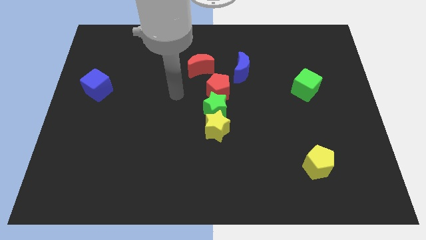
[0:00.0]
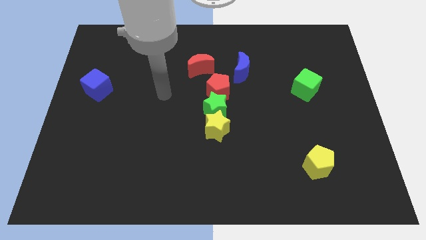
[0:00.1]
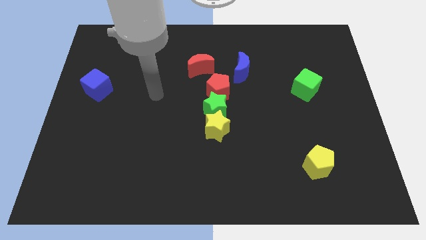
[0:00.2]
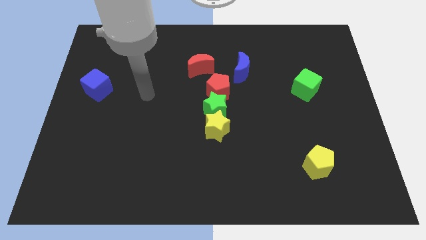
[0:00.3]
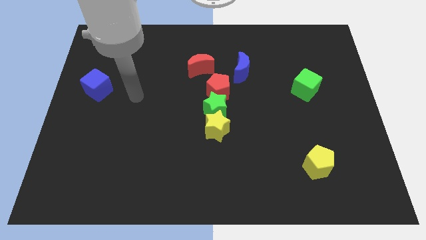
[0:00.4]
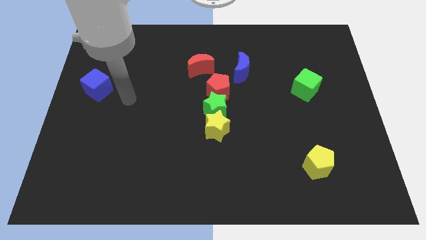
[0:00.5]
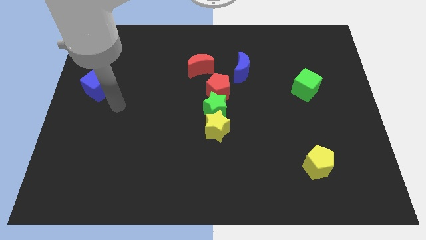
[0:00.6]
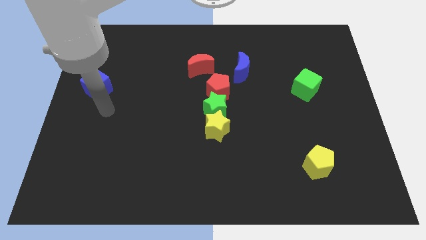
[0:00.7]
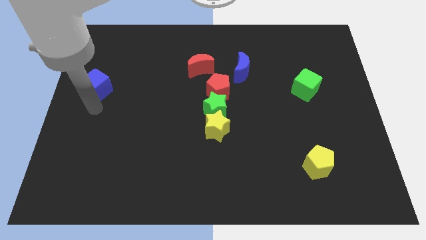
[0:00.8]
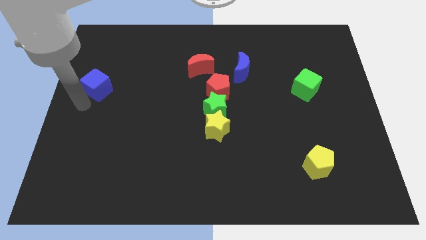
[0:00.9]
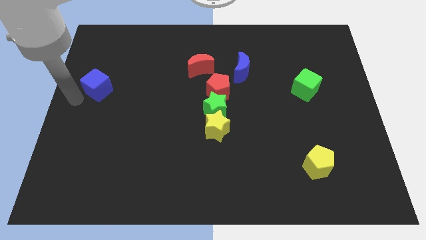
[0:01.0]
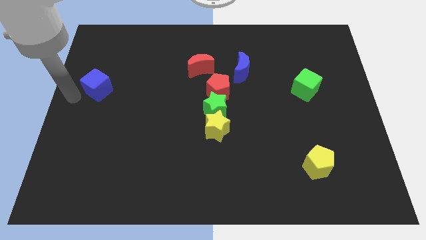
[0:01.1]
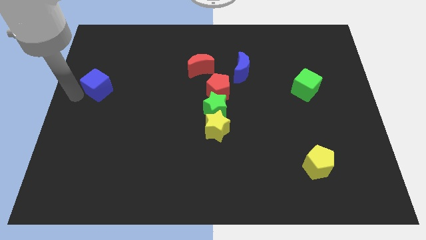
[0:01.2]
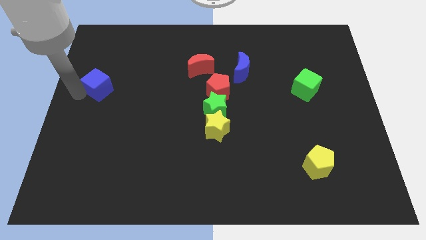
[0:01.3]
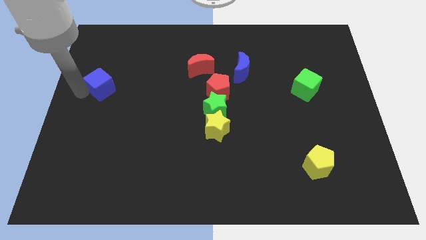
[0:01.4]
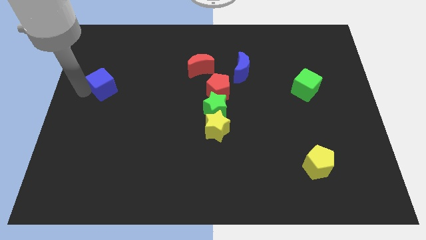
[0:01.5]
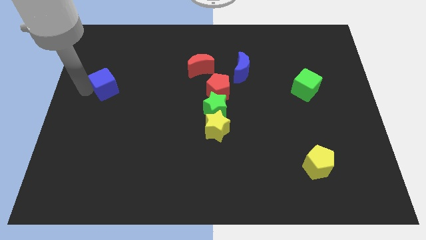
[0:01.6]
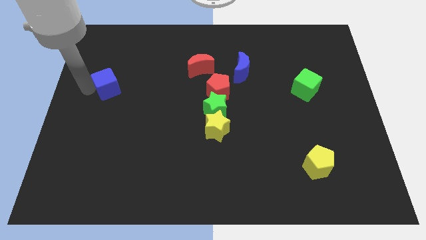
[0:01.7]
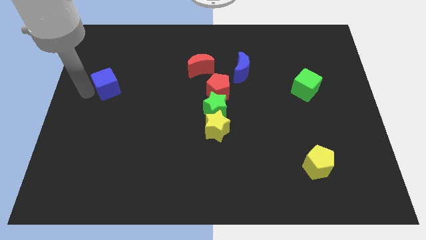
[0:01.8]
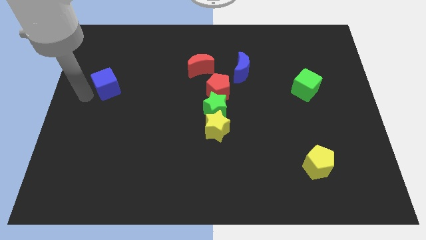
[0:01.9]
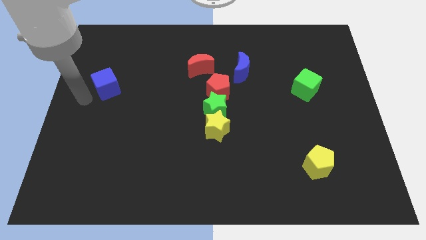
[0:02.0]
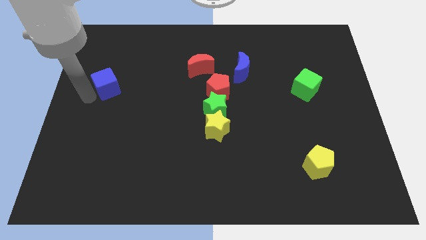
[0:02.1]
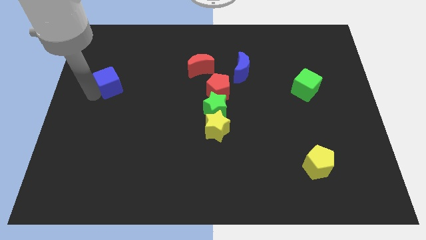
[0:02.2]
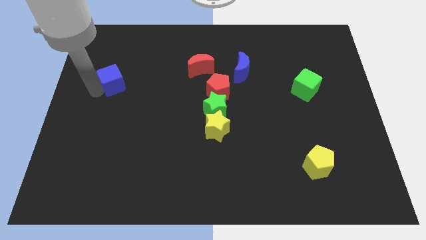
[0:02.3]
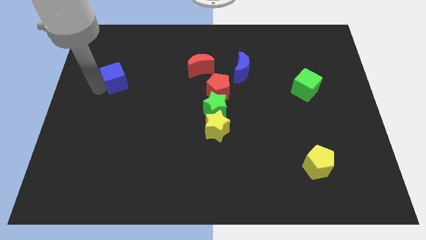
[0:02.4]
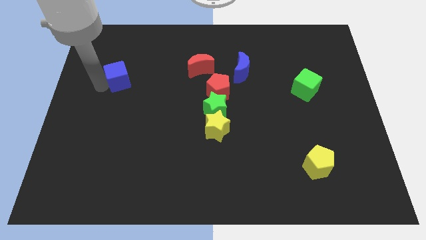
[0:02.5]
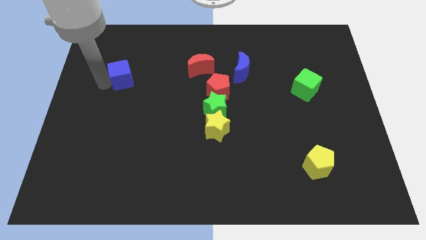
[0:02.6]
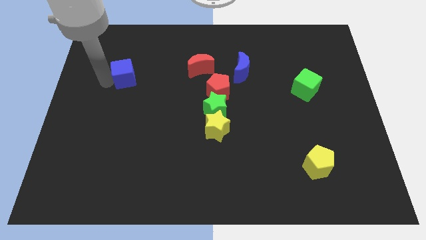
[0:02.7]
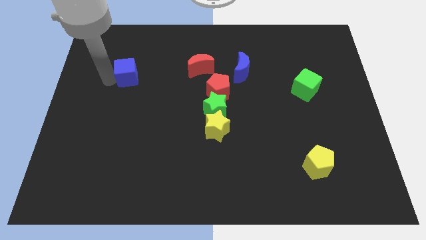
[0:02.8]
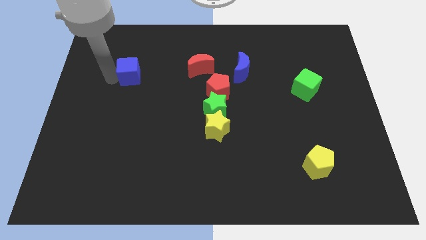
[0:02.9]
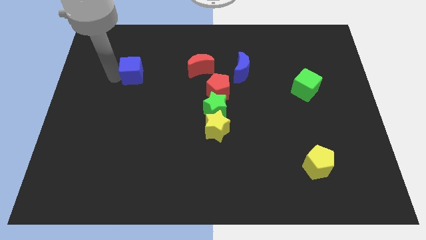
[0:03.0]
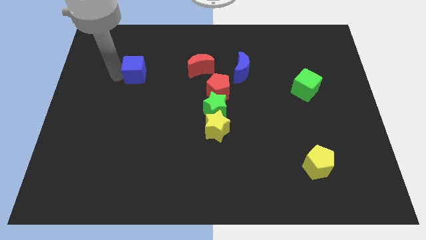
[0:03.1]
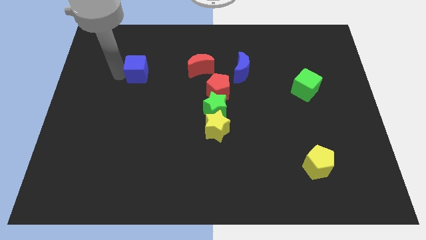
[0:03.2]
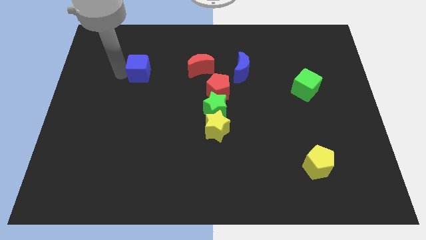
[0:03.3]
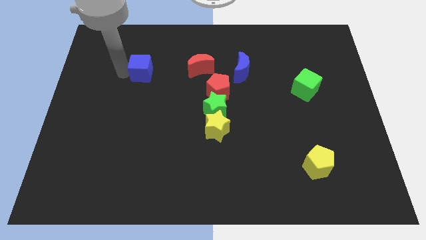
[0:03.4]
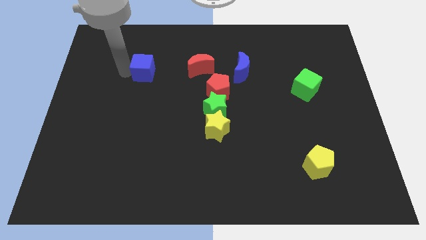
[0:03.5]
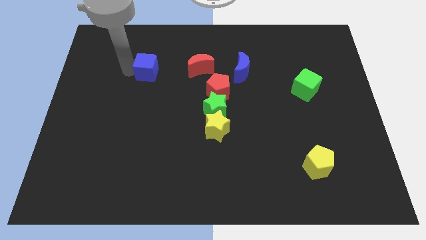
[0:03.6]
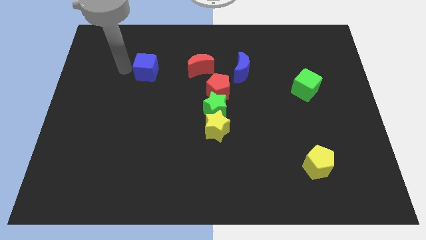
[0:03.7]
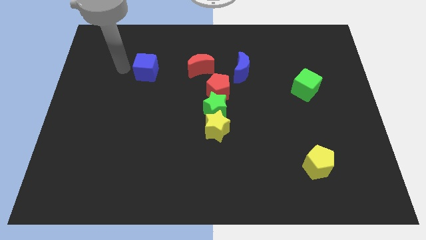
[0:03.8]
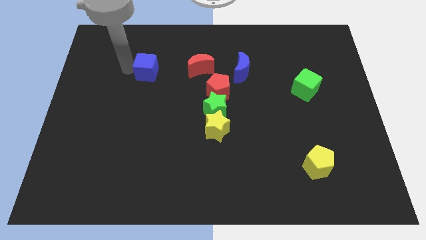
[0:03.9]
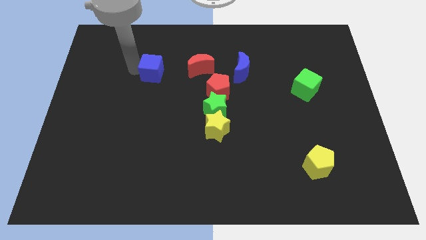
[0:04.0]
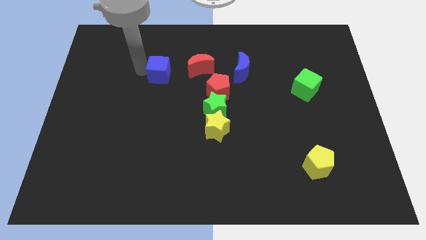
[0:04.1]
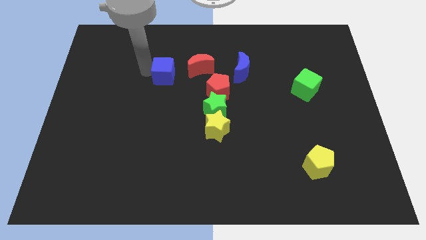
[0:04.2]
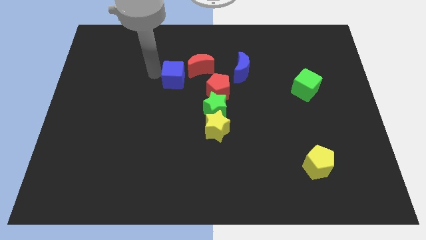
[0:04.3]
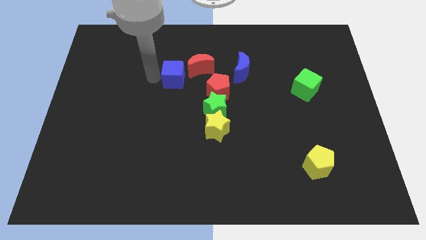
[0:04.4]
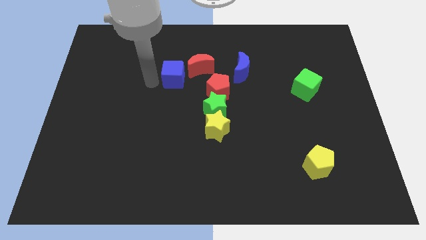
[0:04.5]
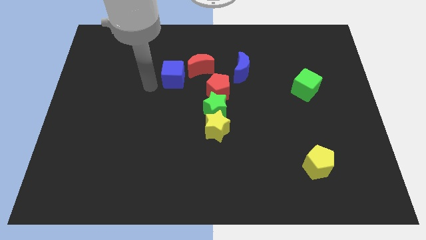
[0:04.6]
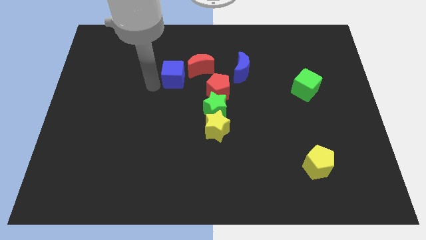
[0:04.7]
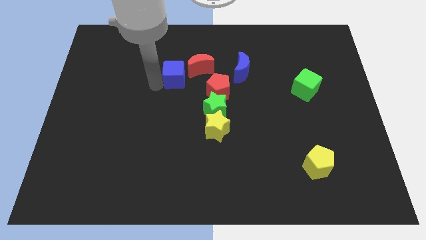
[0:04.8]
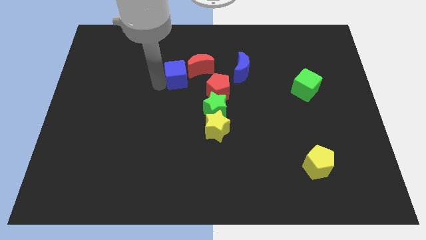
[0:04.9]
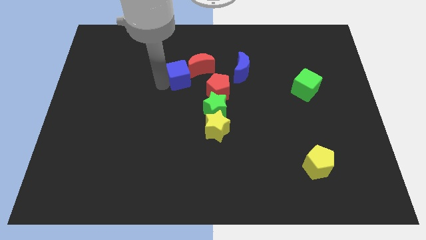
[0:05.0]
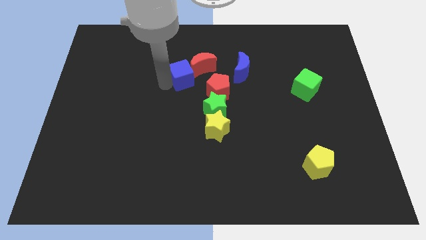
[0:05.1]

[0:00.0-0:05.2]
move the blue cube close to the red moon

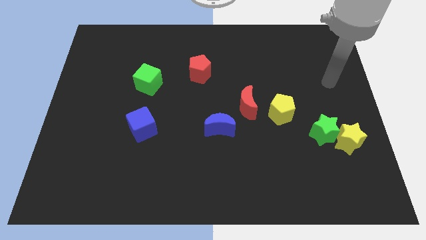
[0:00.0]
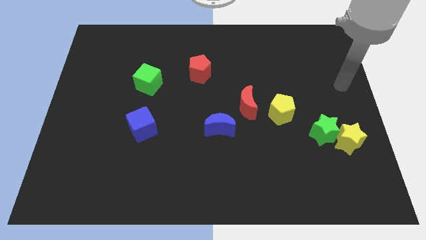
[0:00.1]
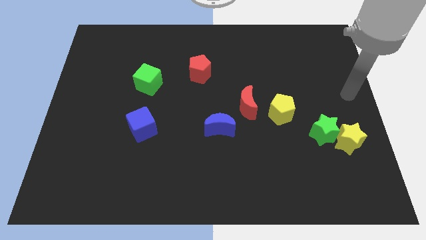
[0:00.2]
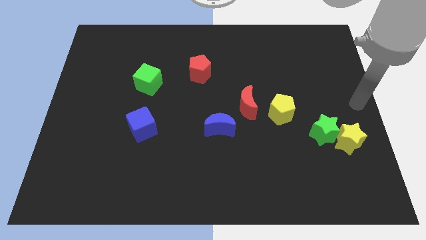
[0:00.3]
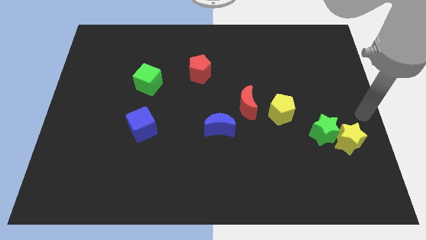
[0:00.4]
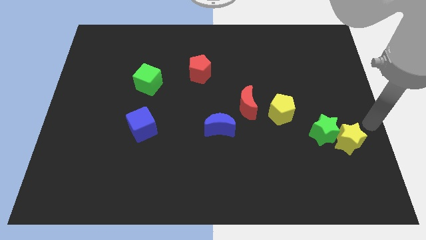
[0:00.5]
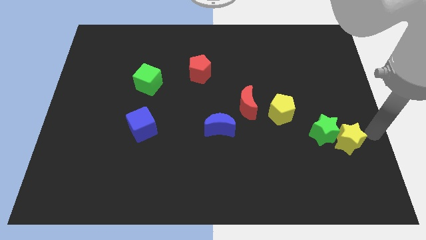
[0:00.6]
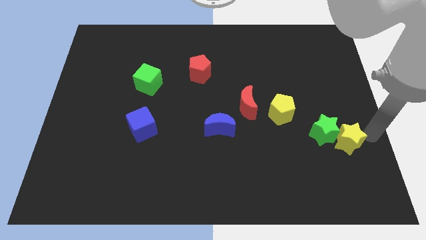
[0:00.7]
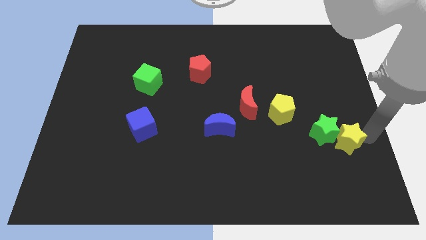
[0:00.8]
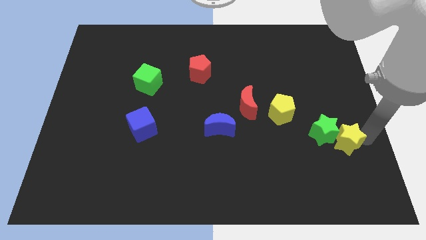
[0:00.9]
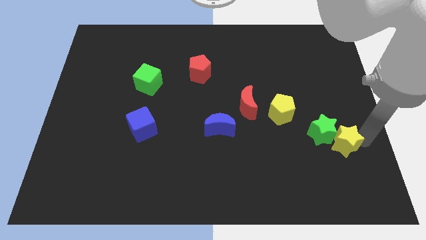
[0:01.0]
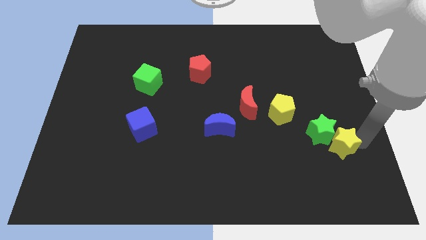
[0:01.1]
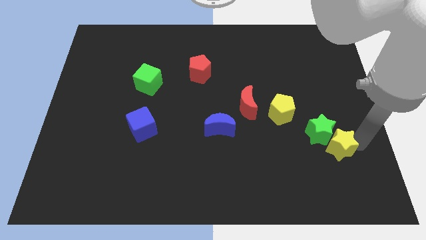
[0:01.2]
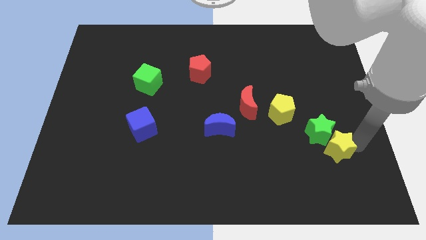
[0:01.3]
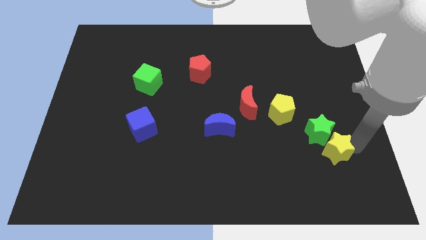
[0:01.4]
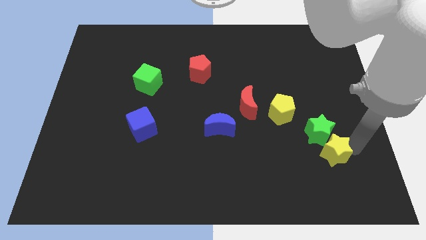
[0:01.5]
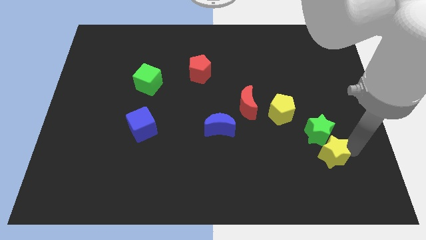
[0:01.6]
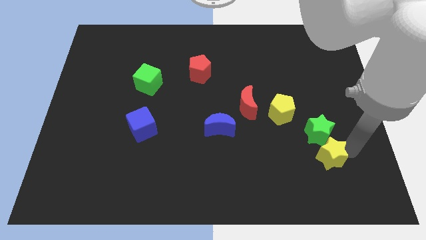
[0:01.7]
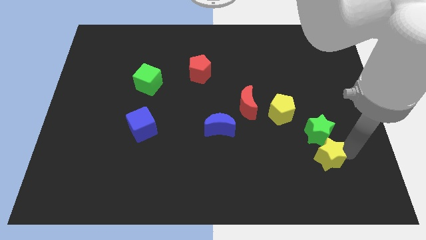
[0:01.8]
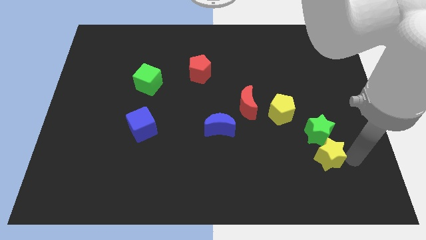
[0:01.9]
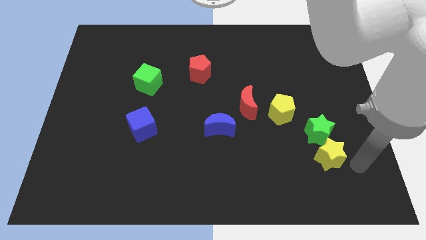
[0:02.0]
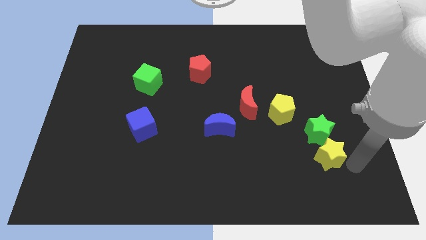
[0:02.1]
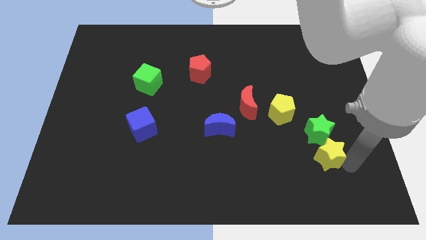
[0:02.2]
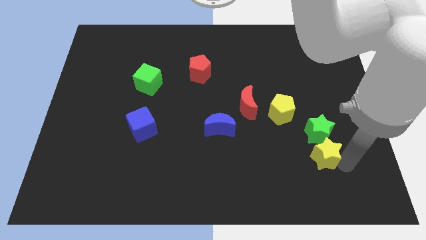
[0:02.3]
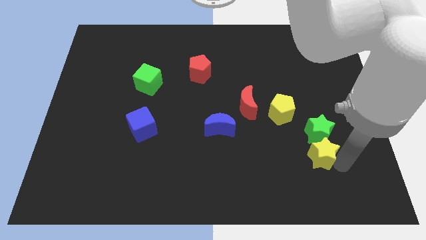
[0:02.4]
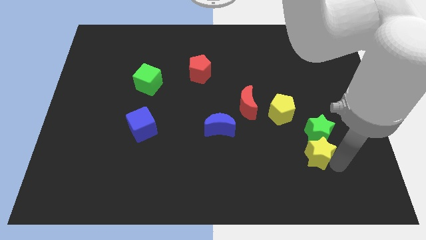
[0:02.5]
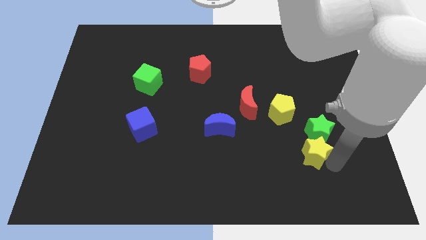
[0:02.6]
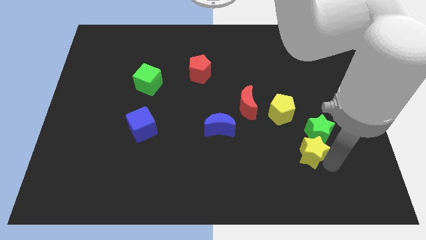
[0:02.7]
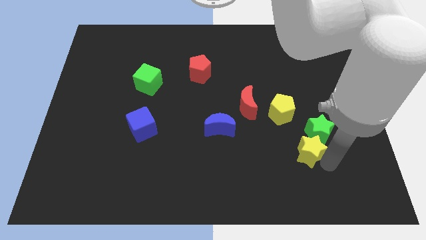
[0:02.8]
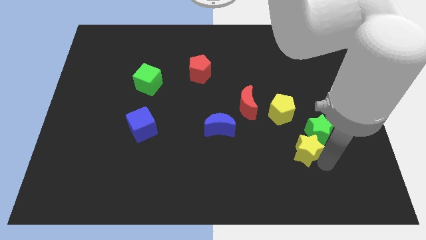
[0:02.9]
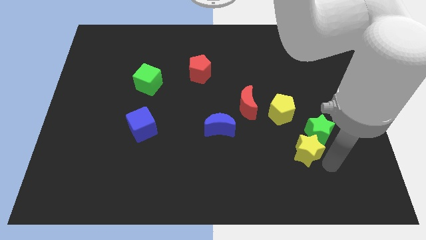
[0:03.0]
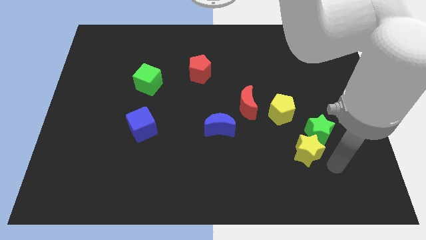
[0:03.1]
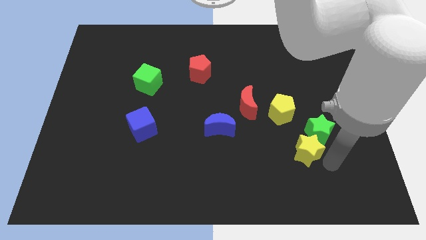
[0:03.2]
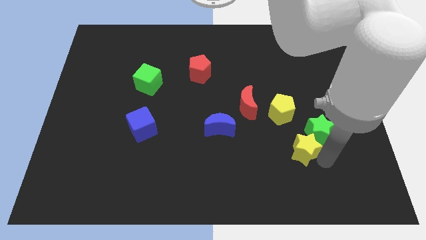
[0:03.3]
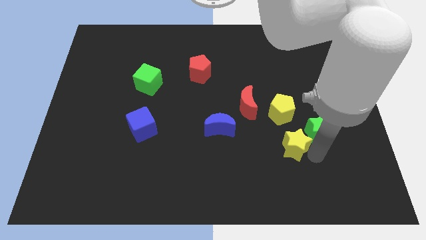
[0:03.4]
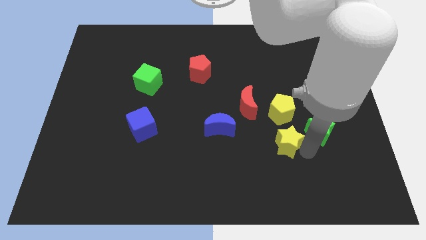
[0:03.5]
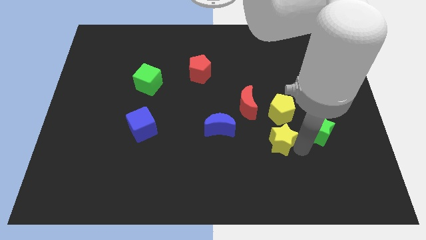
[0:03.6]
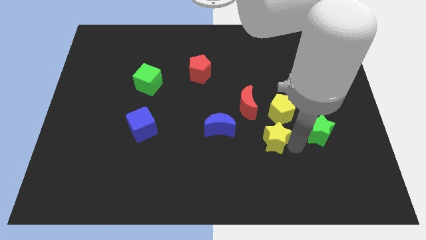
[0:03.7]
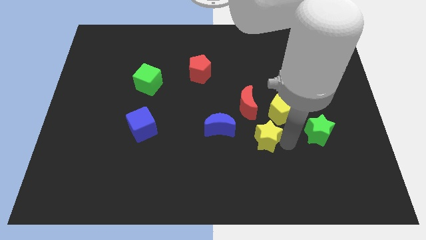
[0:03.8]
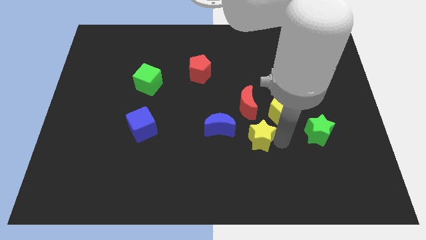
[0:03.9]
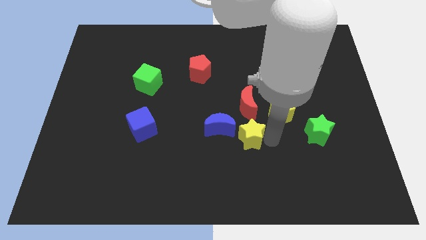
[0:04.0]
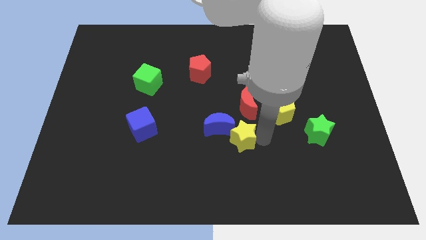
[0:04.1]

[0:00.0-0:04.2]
slide the yellow star towards the blue moon
